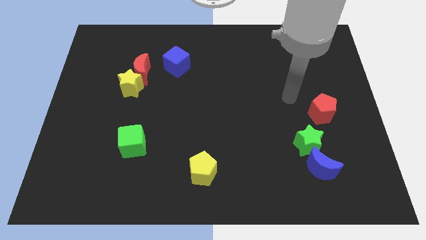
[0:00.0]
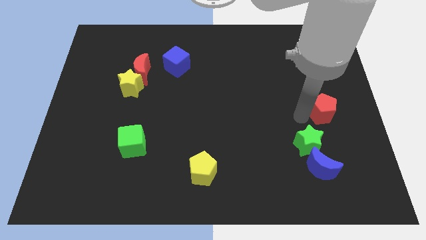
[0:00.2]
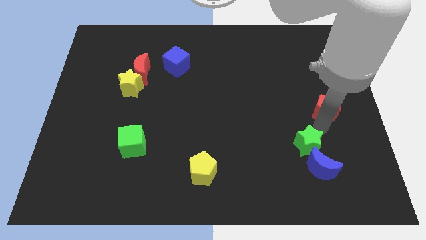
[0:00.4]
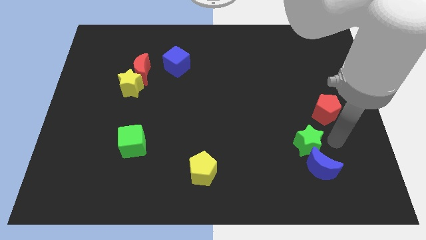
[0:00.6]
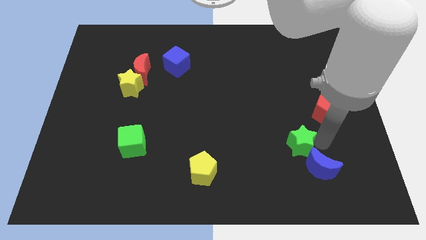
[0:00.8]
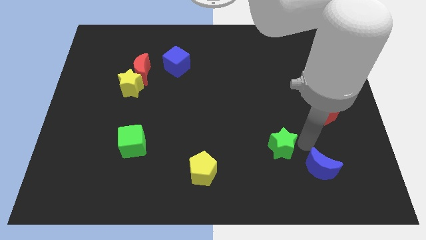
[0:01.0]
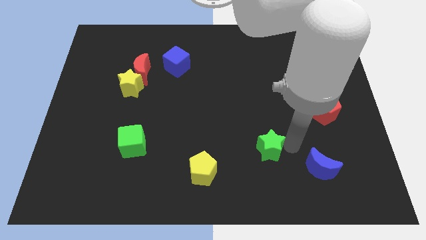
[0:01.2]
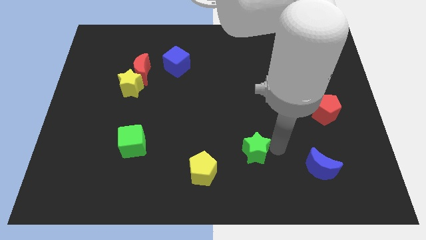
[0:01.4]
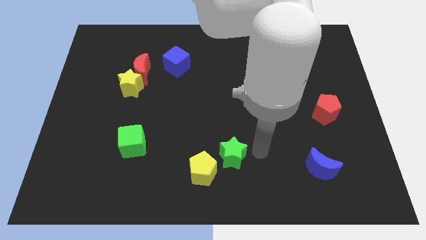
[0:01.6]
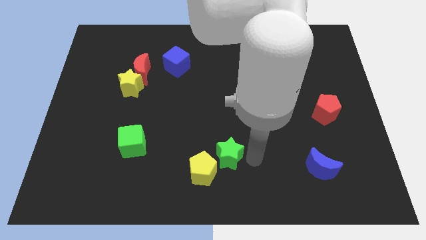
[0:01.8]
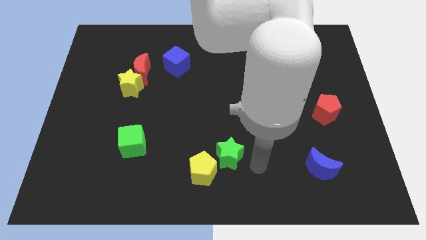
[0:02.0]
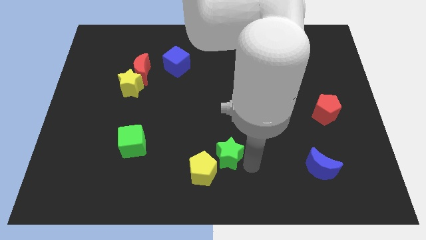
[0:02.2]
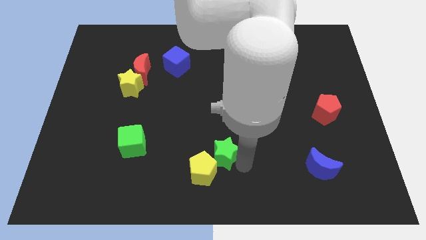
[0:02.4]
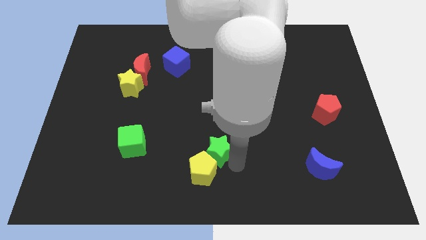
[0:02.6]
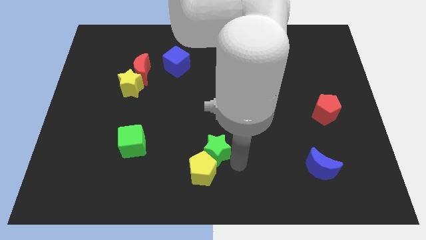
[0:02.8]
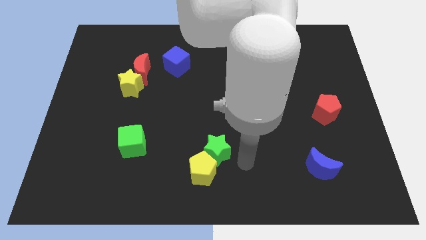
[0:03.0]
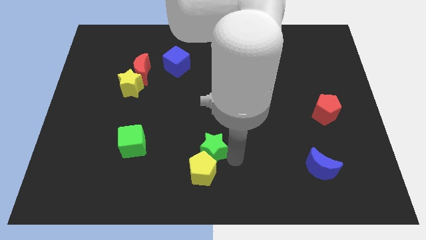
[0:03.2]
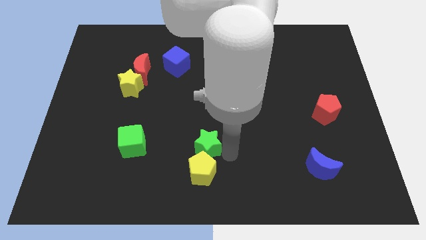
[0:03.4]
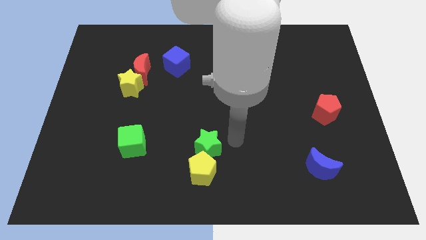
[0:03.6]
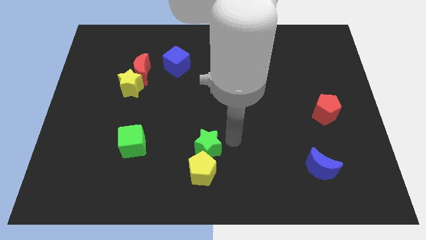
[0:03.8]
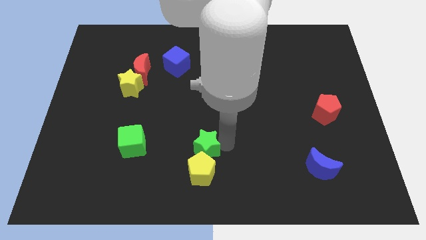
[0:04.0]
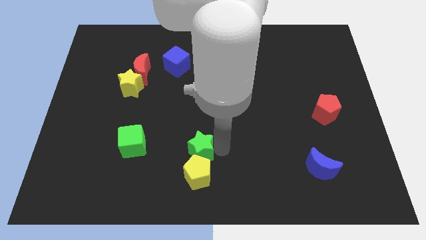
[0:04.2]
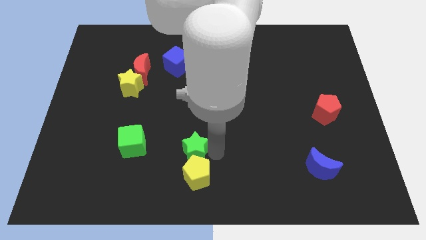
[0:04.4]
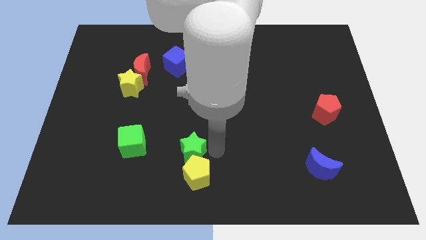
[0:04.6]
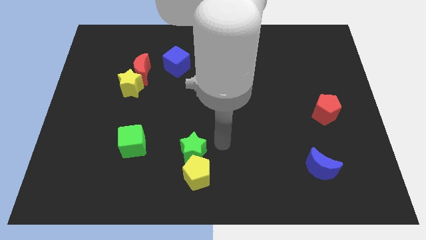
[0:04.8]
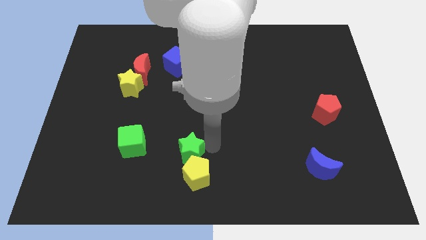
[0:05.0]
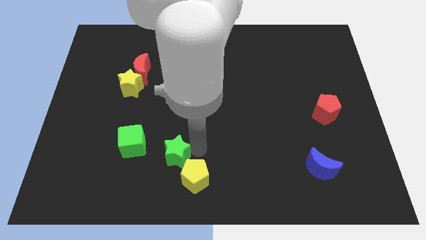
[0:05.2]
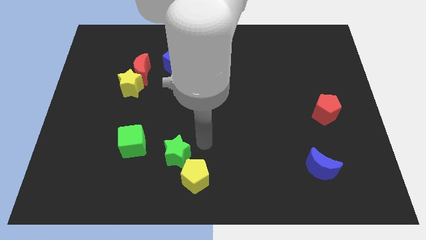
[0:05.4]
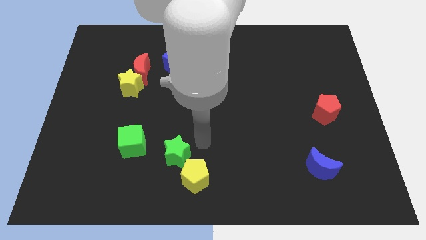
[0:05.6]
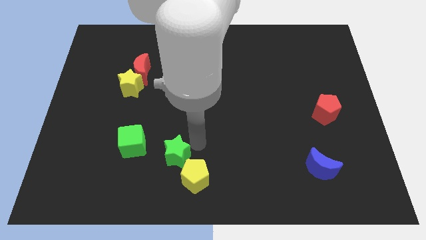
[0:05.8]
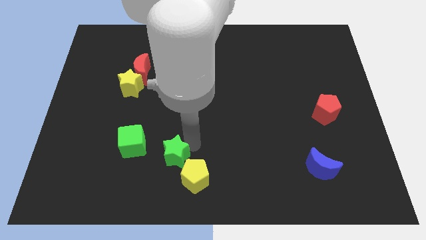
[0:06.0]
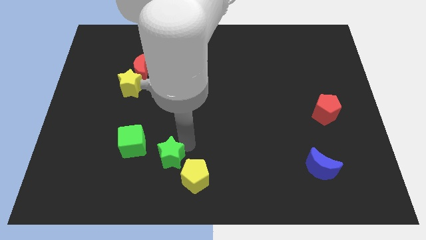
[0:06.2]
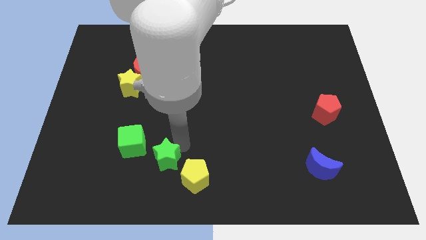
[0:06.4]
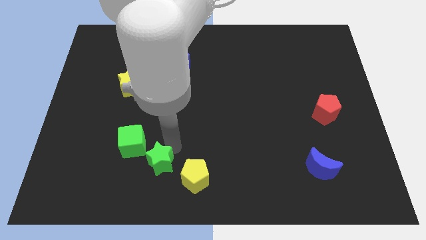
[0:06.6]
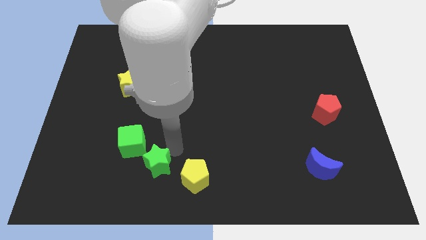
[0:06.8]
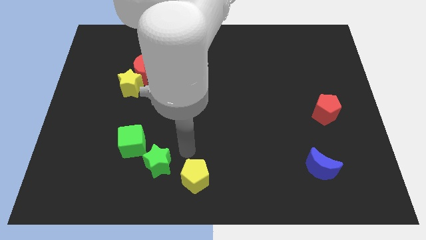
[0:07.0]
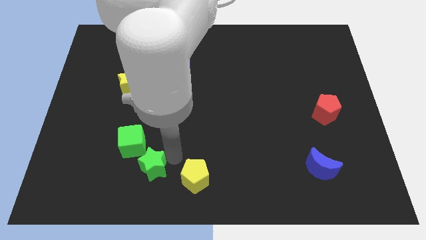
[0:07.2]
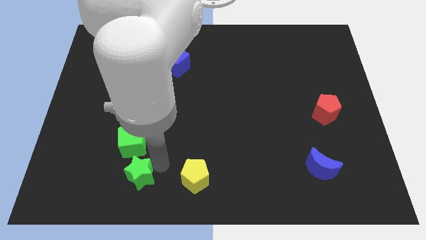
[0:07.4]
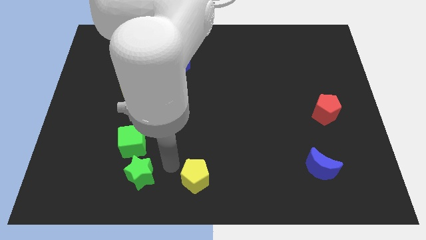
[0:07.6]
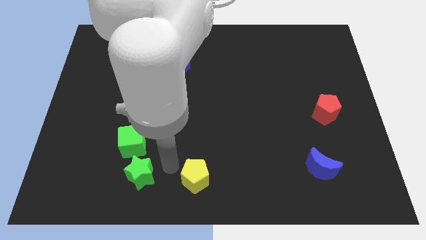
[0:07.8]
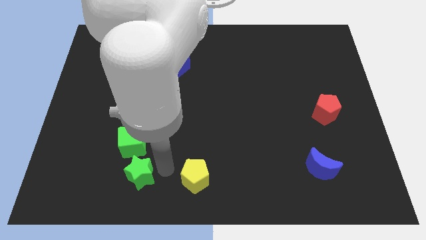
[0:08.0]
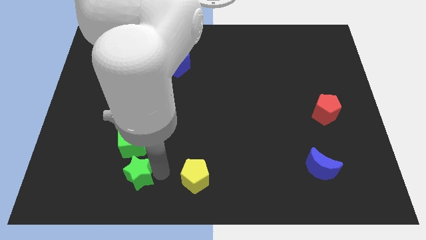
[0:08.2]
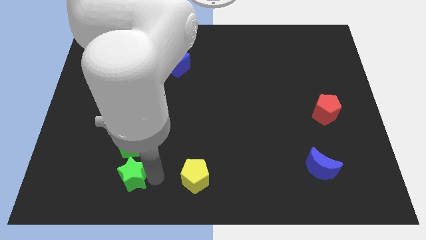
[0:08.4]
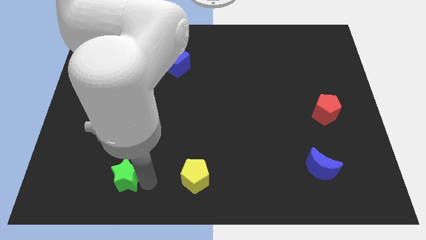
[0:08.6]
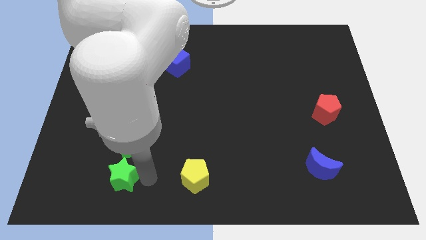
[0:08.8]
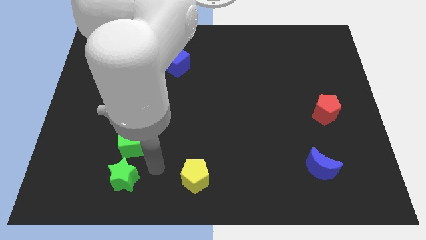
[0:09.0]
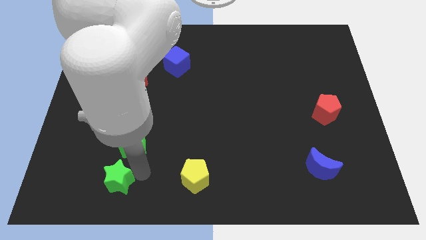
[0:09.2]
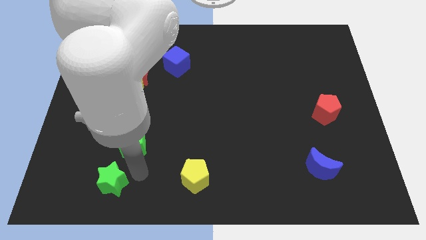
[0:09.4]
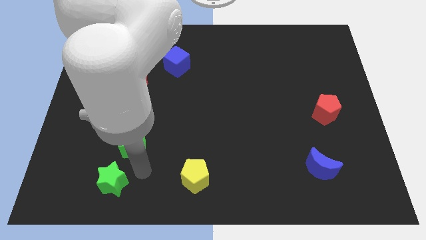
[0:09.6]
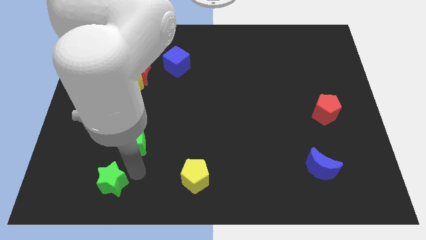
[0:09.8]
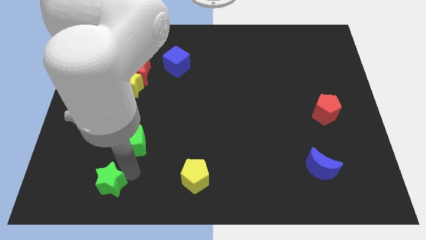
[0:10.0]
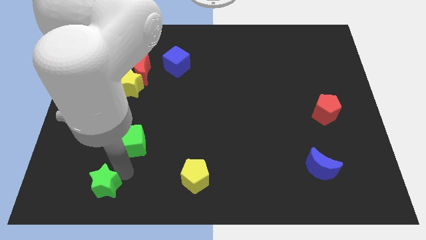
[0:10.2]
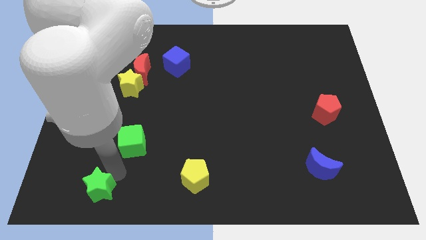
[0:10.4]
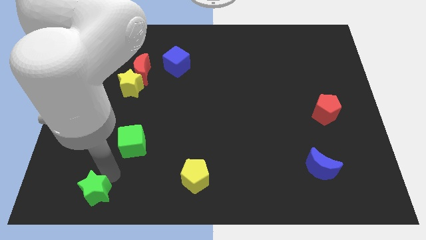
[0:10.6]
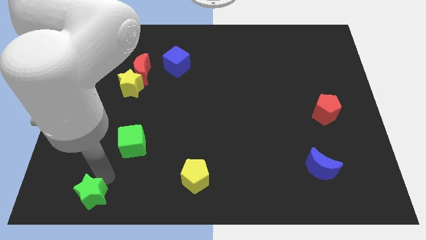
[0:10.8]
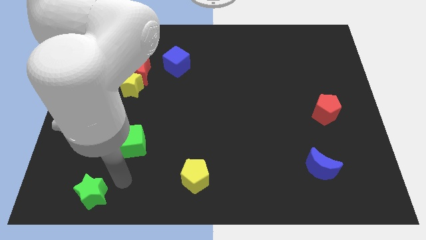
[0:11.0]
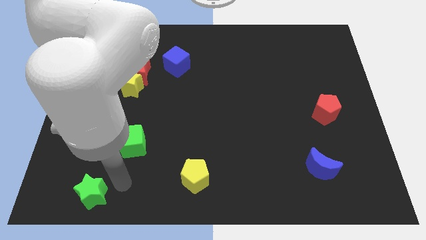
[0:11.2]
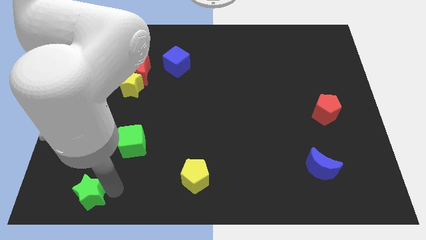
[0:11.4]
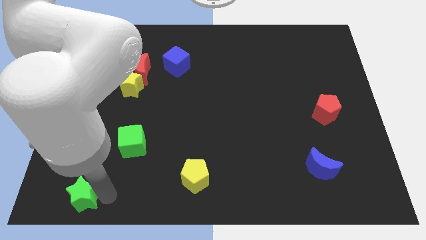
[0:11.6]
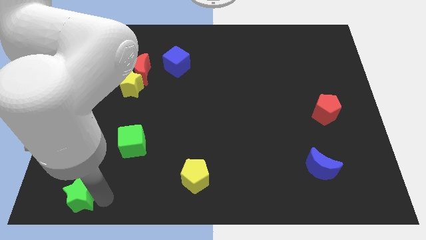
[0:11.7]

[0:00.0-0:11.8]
slide the green star to the bottom left of the board

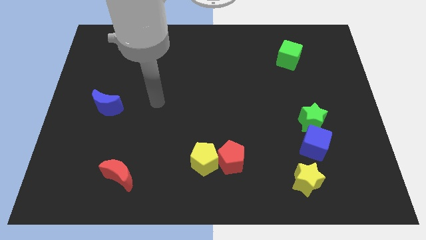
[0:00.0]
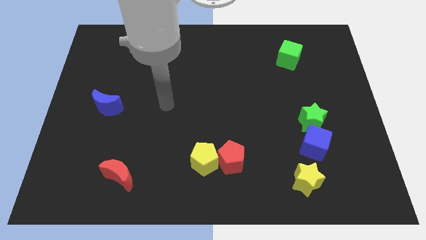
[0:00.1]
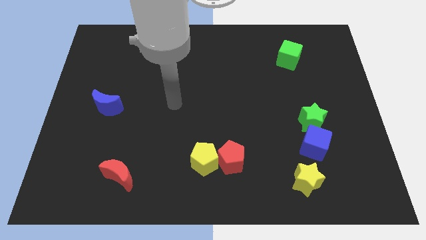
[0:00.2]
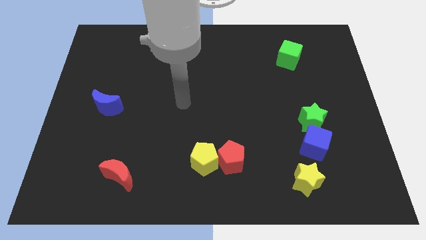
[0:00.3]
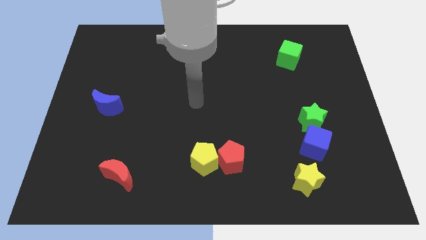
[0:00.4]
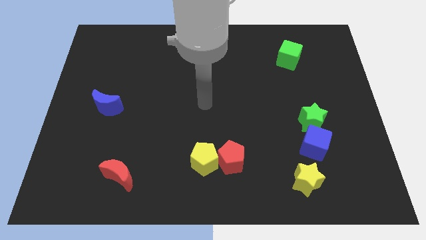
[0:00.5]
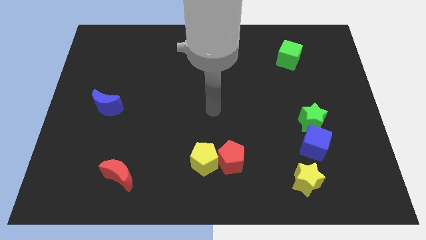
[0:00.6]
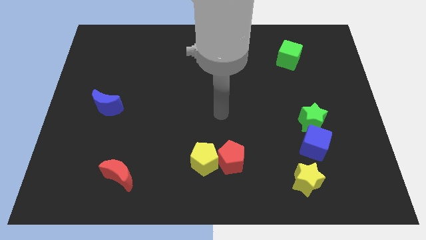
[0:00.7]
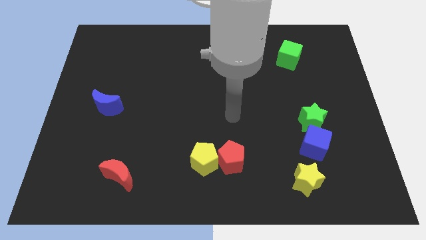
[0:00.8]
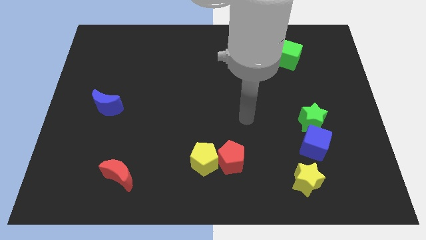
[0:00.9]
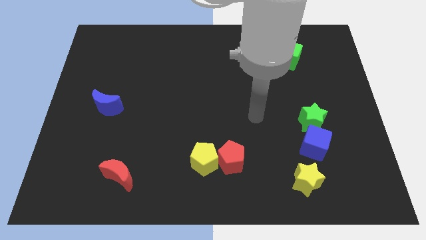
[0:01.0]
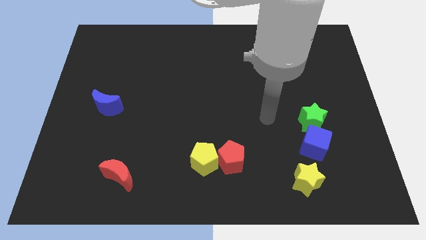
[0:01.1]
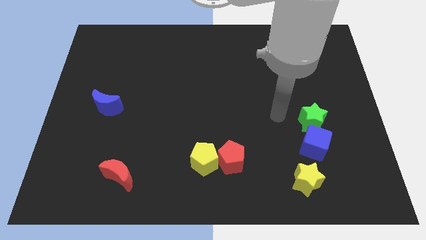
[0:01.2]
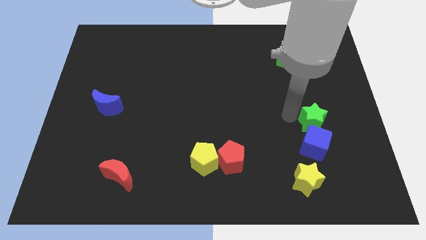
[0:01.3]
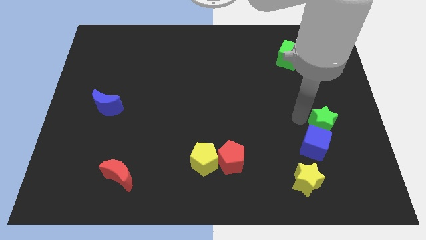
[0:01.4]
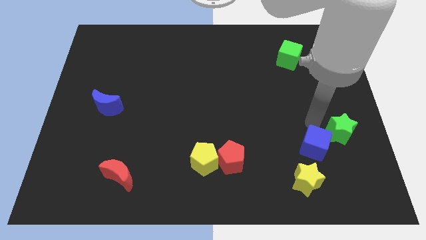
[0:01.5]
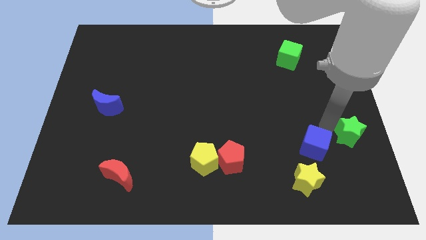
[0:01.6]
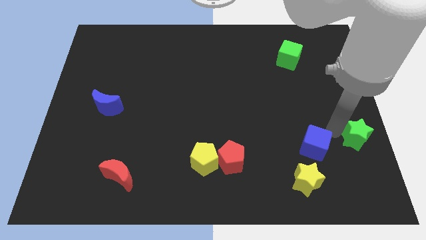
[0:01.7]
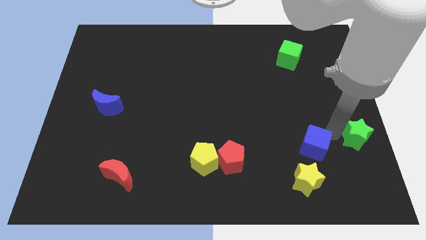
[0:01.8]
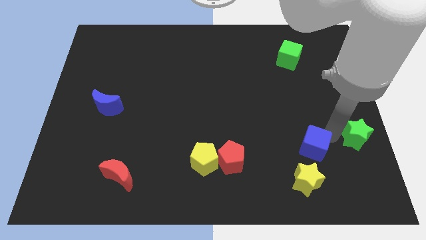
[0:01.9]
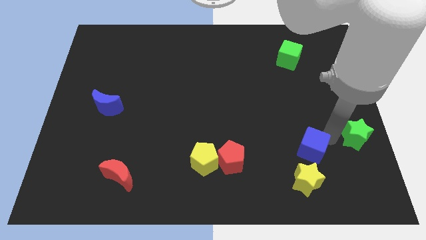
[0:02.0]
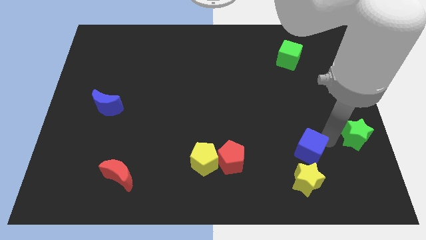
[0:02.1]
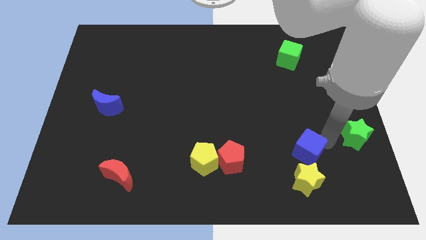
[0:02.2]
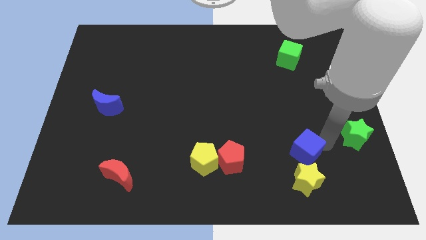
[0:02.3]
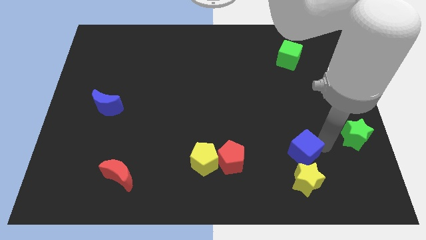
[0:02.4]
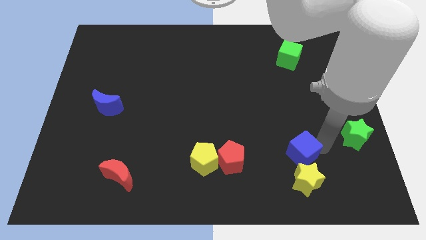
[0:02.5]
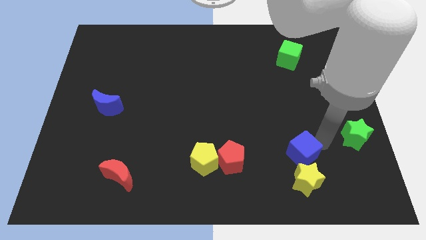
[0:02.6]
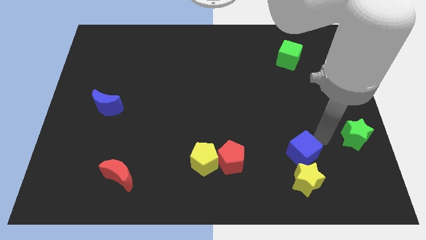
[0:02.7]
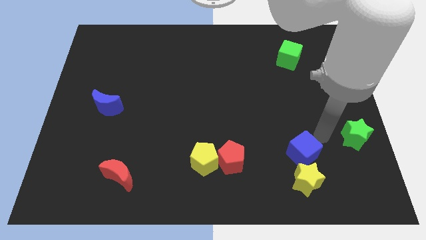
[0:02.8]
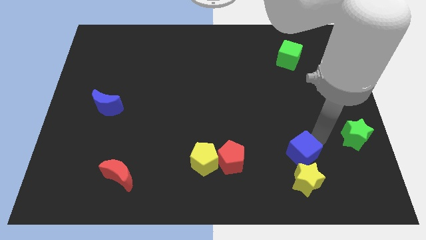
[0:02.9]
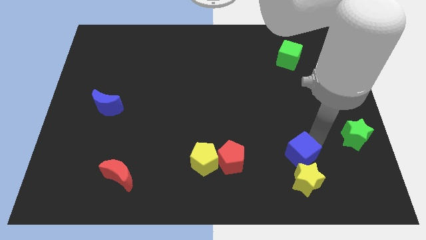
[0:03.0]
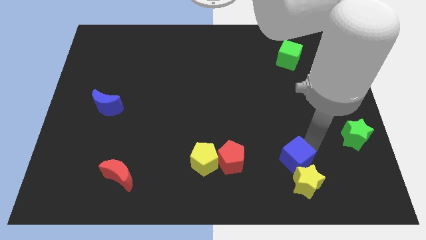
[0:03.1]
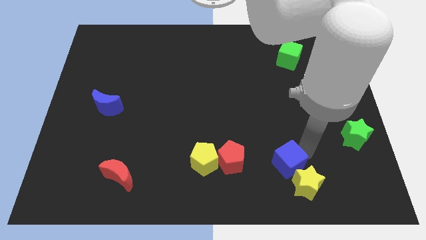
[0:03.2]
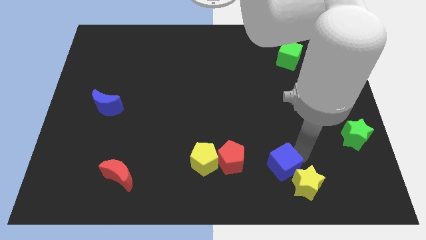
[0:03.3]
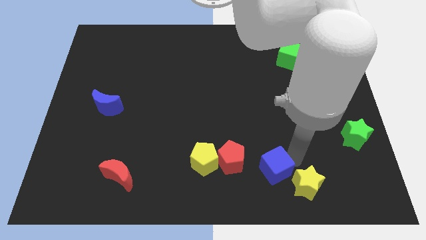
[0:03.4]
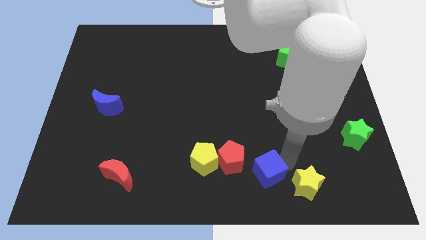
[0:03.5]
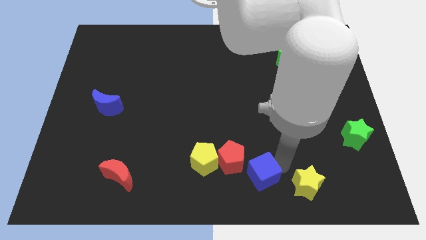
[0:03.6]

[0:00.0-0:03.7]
slide the blue cube to the bottom side
